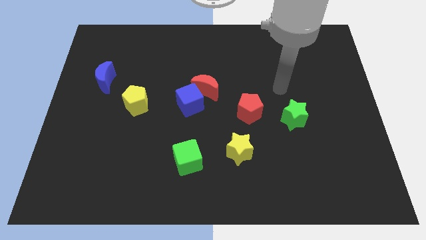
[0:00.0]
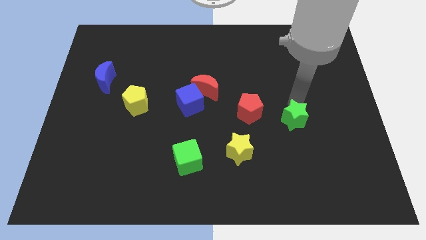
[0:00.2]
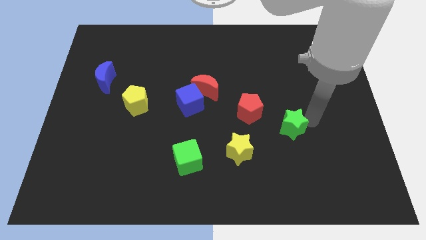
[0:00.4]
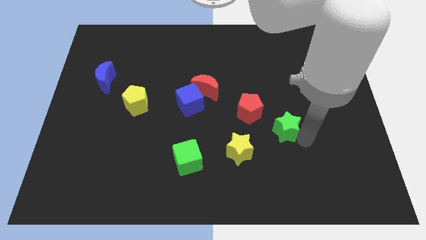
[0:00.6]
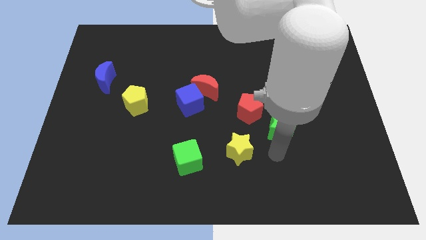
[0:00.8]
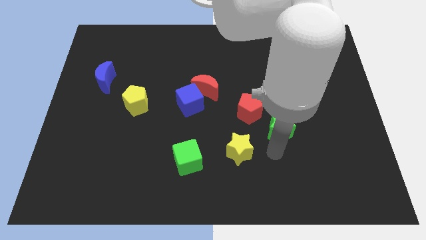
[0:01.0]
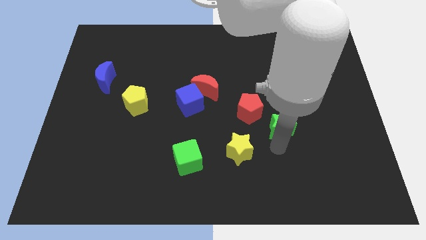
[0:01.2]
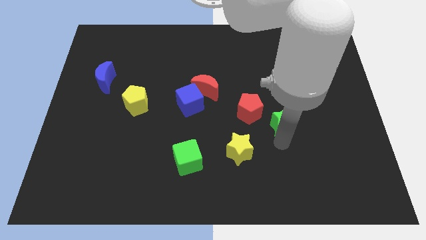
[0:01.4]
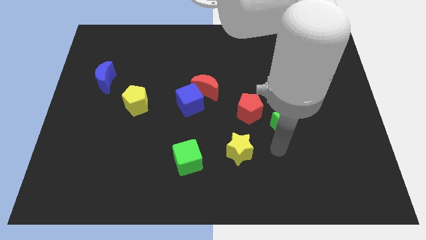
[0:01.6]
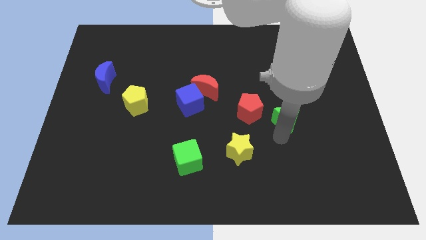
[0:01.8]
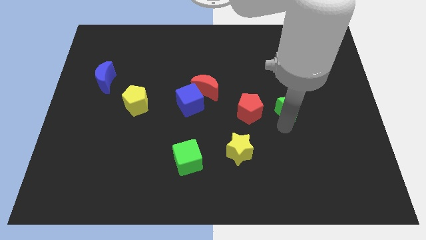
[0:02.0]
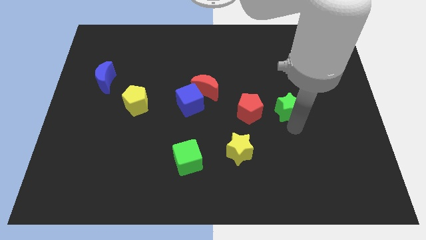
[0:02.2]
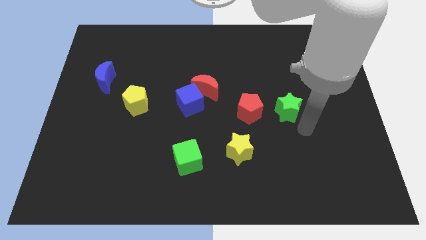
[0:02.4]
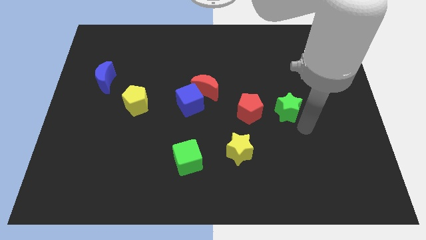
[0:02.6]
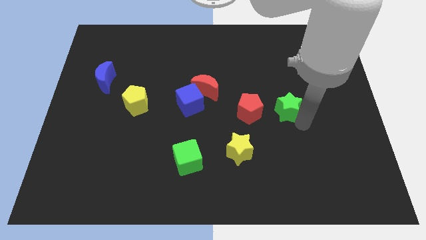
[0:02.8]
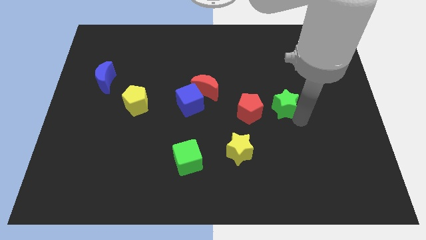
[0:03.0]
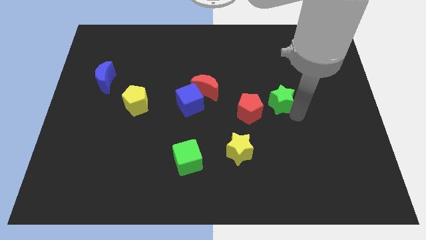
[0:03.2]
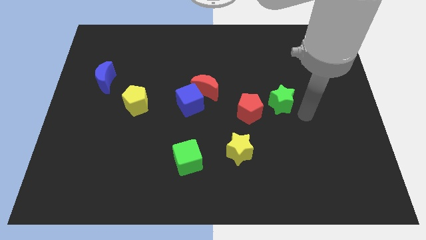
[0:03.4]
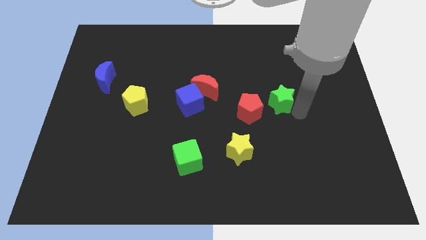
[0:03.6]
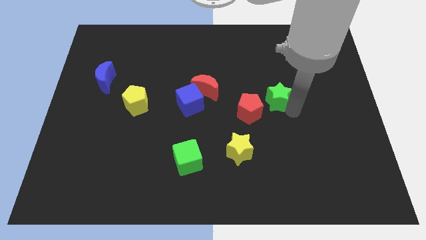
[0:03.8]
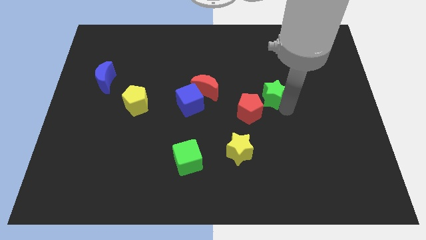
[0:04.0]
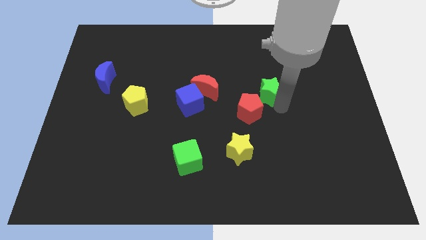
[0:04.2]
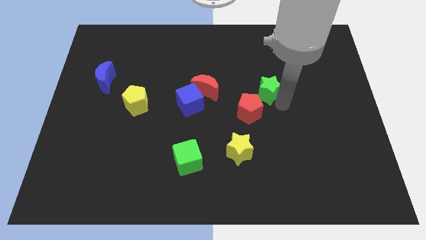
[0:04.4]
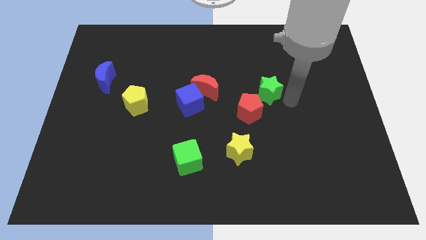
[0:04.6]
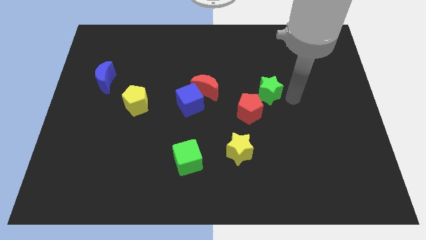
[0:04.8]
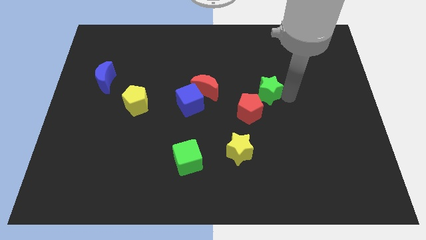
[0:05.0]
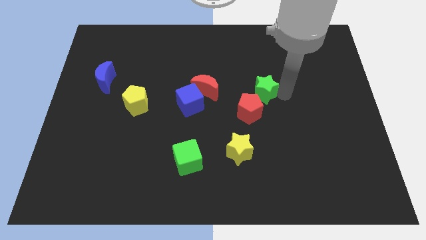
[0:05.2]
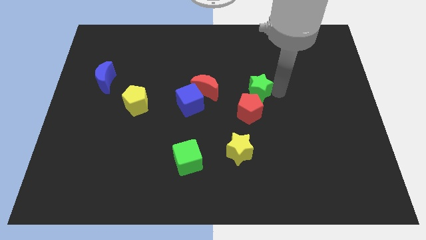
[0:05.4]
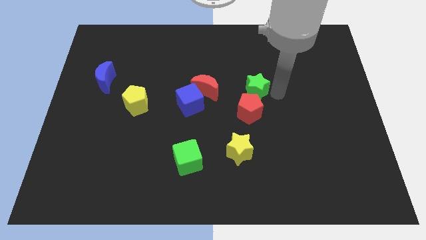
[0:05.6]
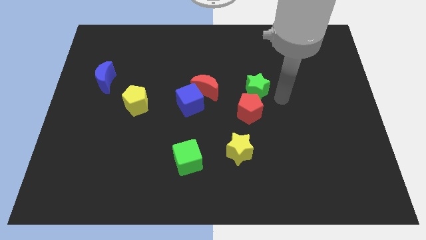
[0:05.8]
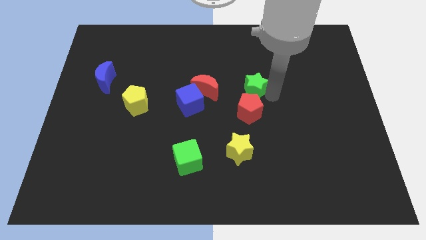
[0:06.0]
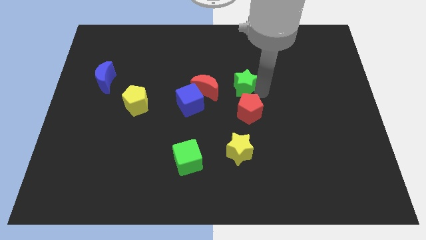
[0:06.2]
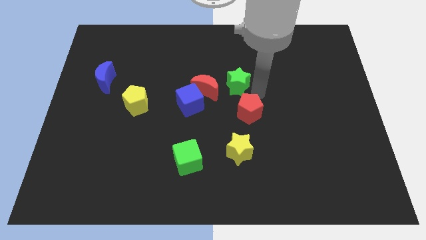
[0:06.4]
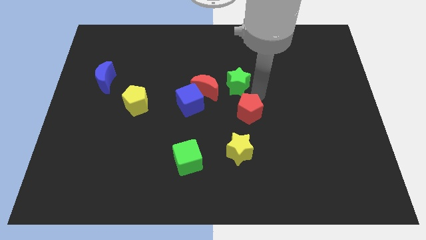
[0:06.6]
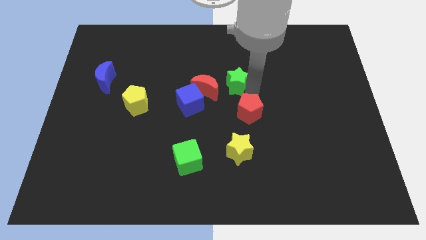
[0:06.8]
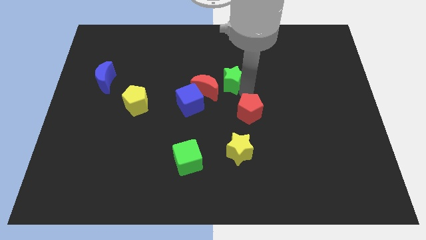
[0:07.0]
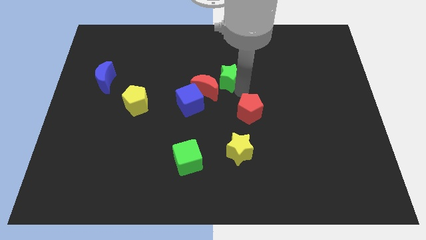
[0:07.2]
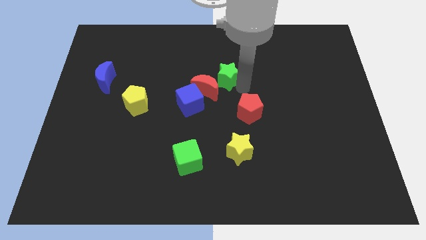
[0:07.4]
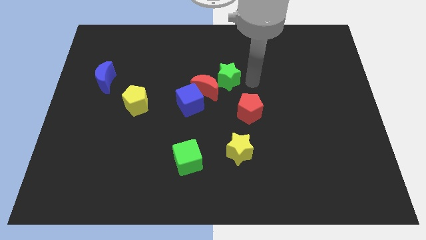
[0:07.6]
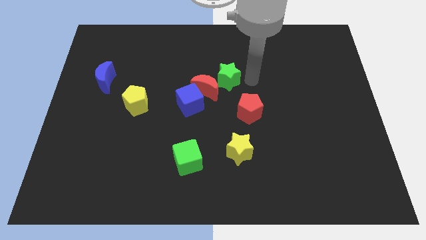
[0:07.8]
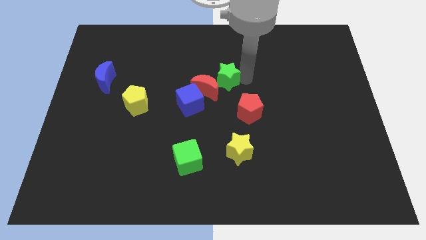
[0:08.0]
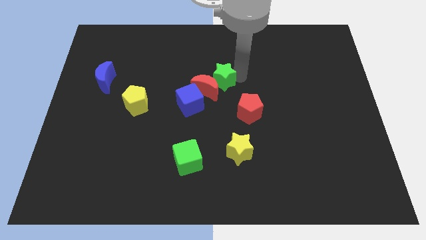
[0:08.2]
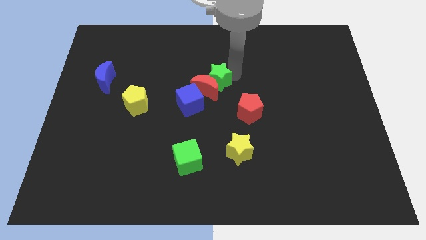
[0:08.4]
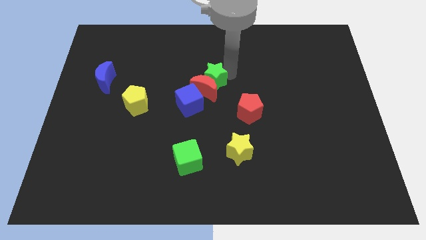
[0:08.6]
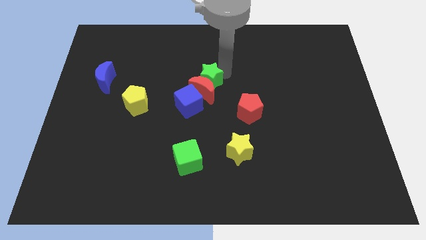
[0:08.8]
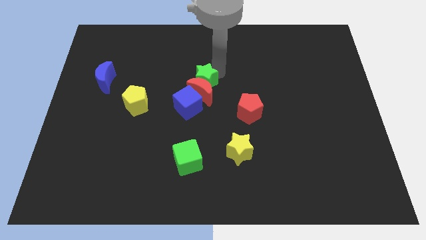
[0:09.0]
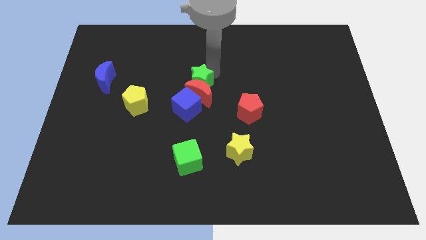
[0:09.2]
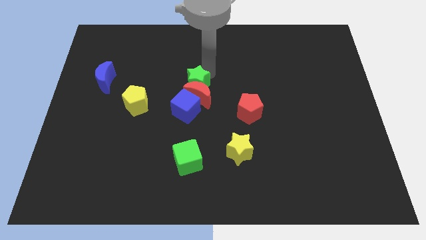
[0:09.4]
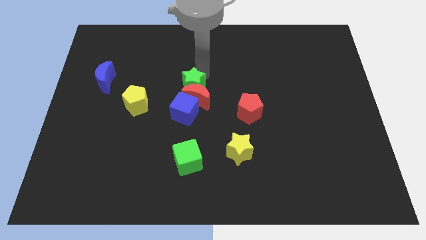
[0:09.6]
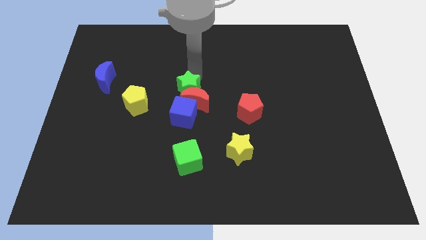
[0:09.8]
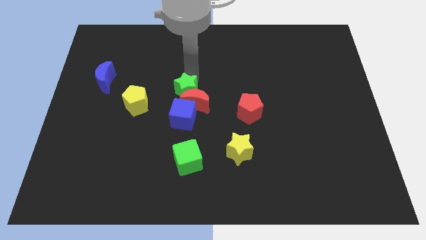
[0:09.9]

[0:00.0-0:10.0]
slide the green star to the left of the red moon

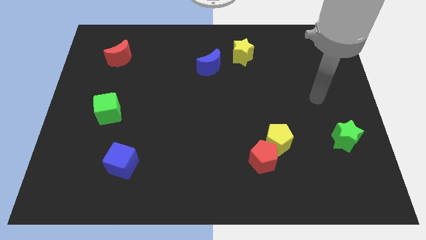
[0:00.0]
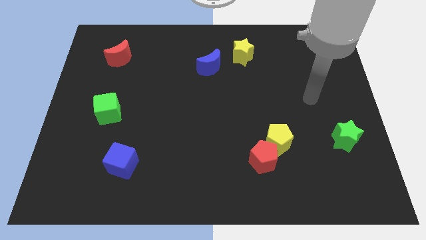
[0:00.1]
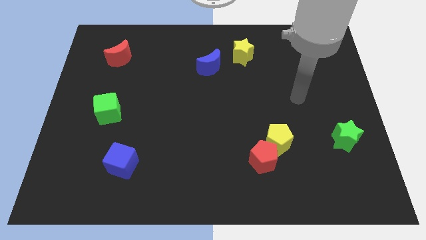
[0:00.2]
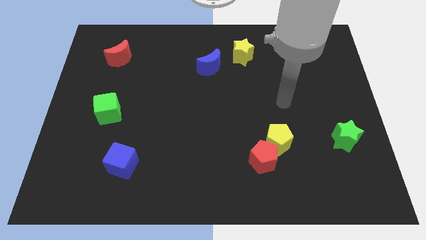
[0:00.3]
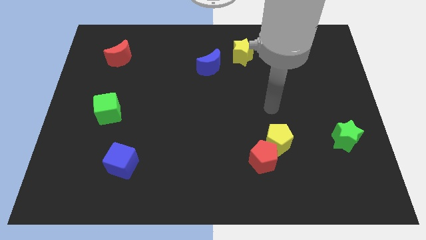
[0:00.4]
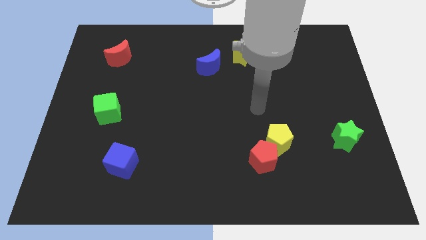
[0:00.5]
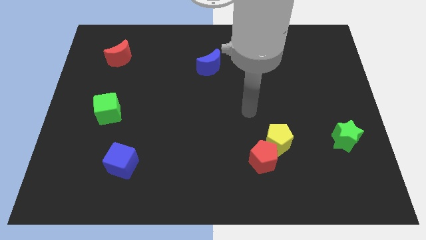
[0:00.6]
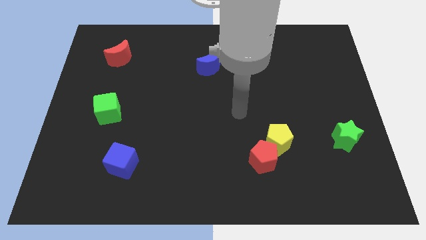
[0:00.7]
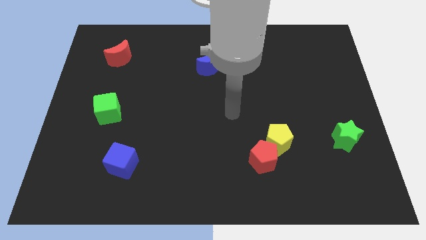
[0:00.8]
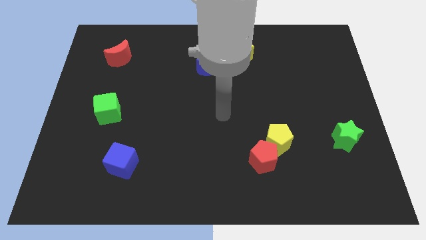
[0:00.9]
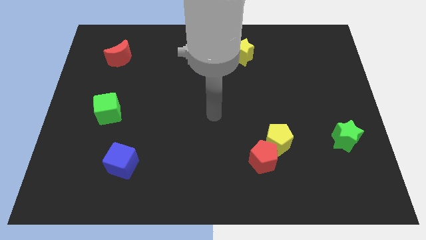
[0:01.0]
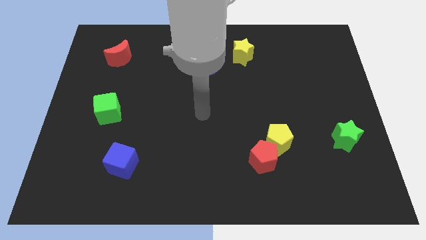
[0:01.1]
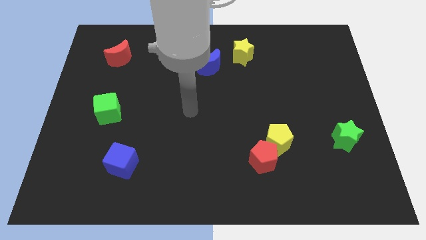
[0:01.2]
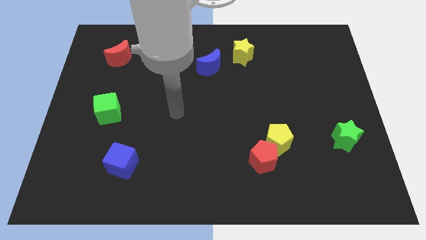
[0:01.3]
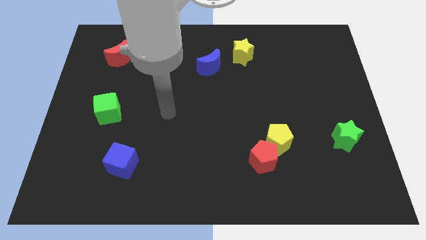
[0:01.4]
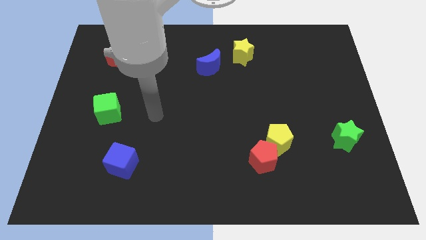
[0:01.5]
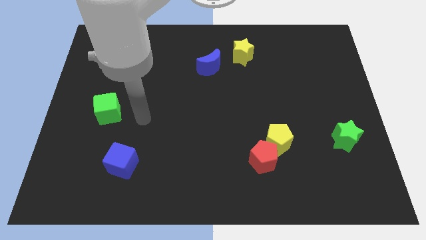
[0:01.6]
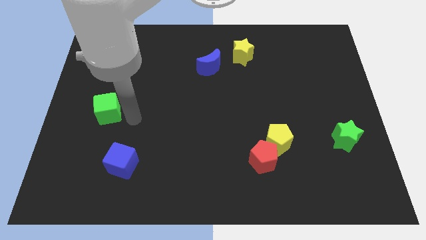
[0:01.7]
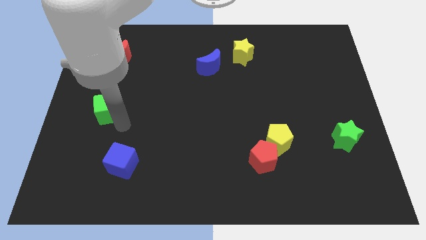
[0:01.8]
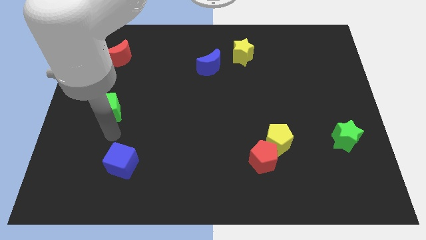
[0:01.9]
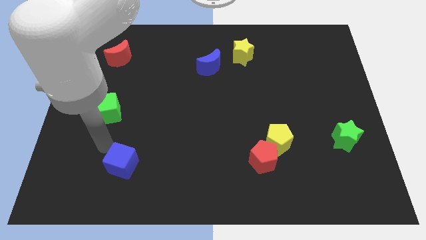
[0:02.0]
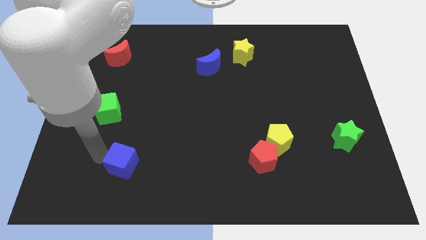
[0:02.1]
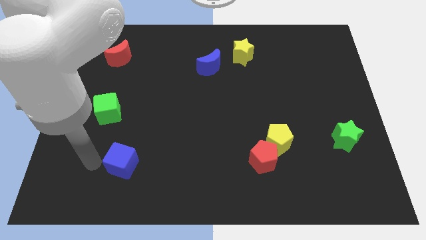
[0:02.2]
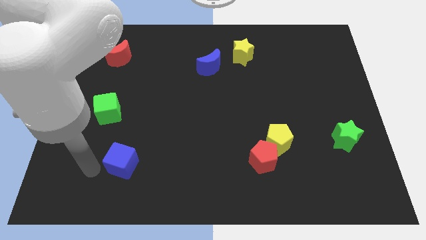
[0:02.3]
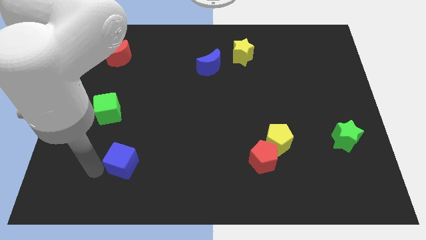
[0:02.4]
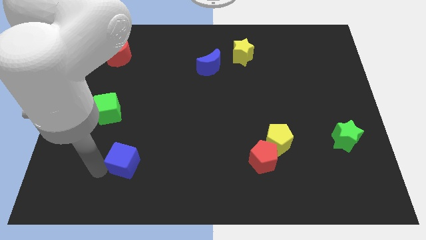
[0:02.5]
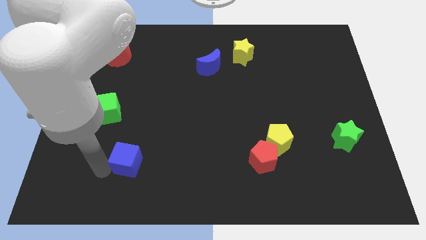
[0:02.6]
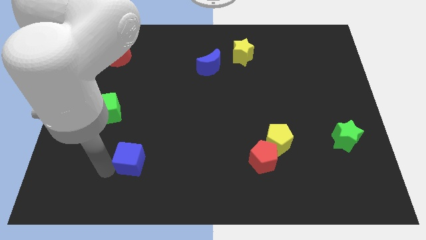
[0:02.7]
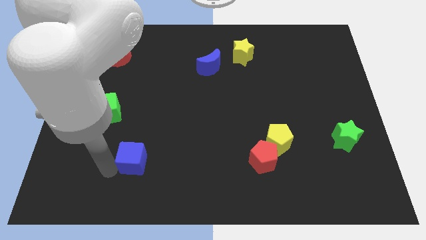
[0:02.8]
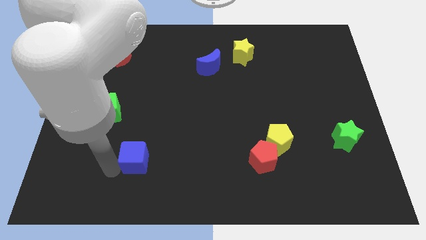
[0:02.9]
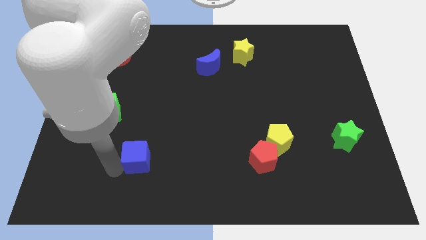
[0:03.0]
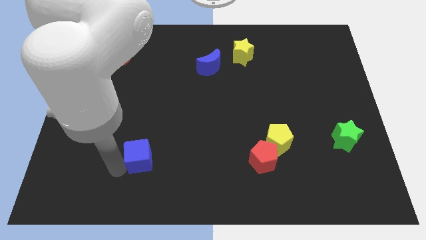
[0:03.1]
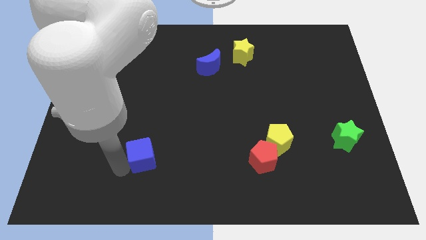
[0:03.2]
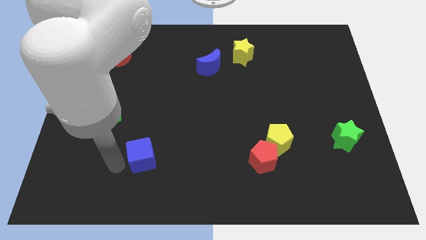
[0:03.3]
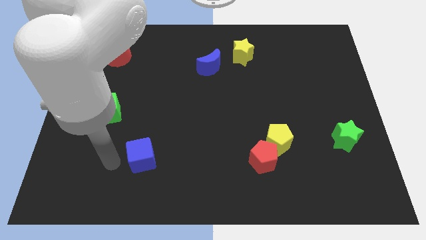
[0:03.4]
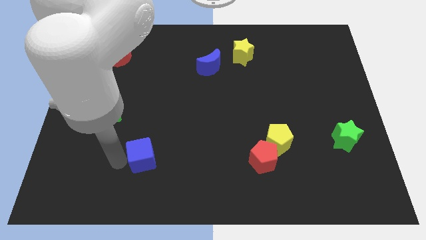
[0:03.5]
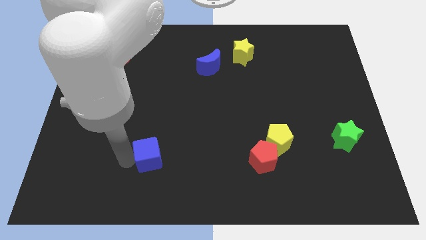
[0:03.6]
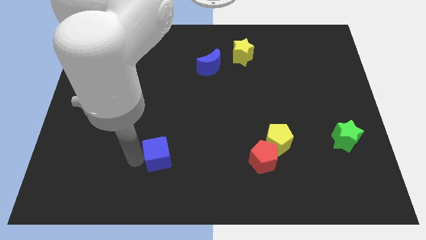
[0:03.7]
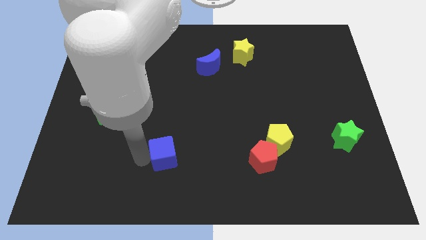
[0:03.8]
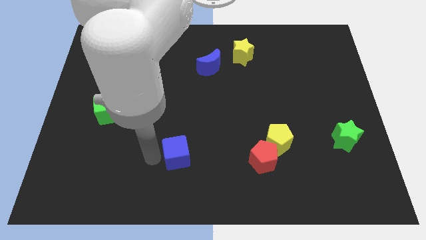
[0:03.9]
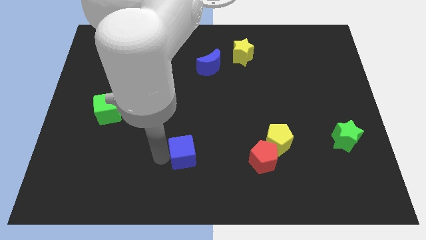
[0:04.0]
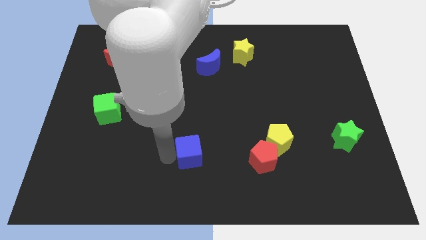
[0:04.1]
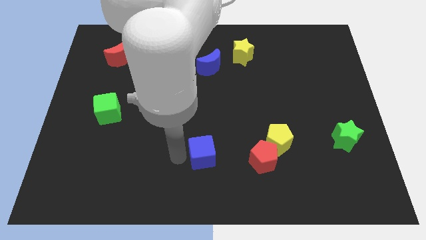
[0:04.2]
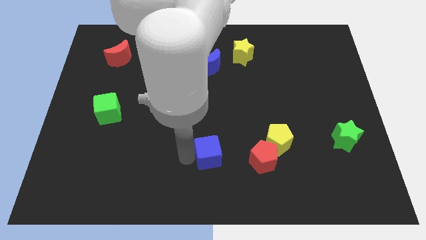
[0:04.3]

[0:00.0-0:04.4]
put the blue cube to the left of the yellow pentagon
